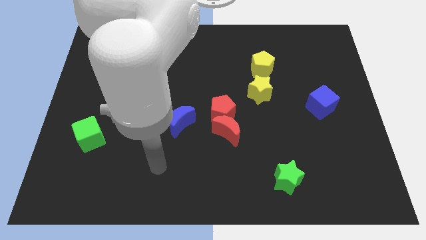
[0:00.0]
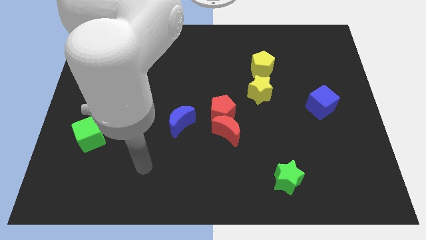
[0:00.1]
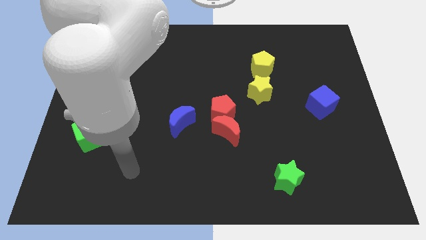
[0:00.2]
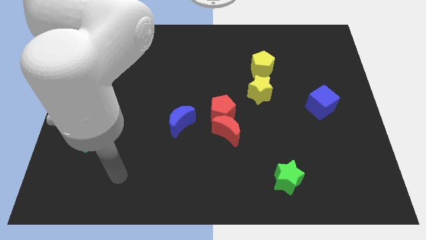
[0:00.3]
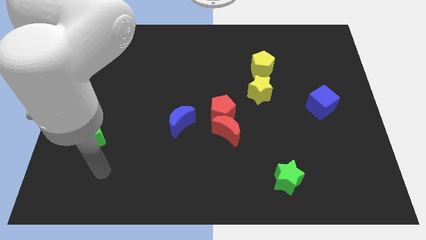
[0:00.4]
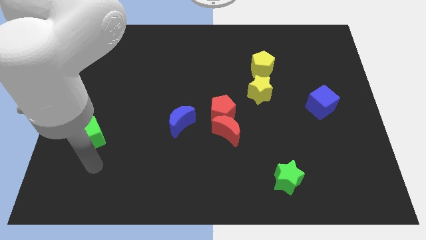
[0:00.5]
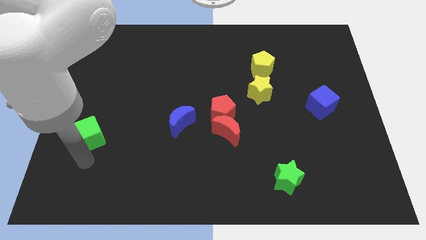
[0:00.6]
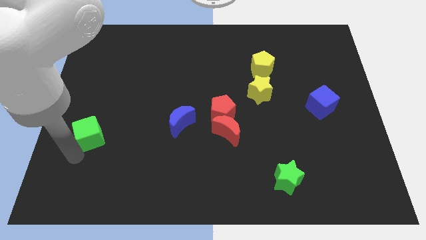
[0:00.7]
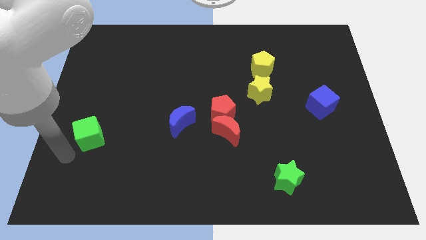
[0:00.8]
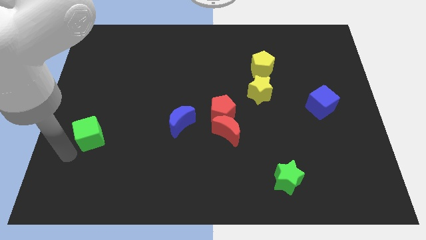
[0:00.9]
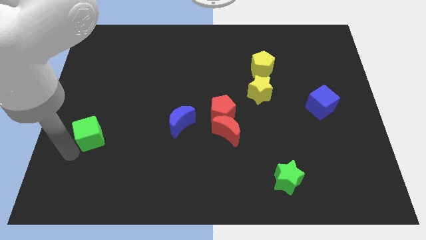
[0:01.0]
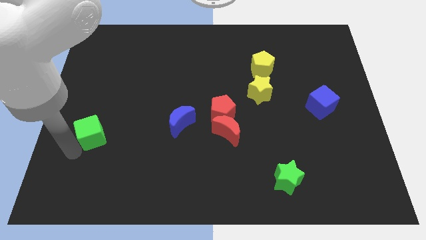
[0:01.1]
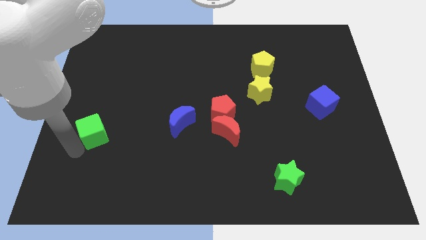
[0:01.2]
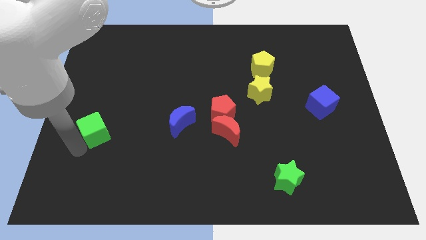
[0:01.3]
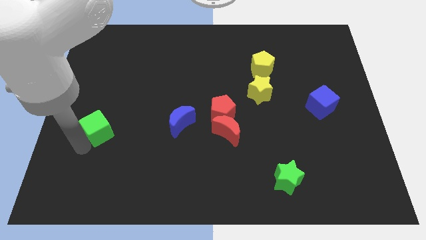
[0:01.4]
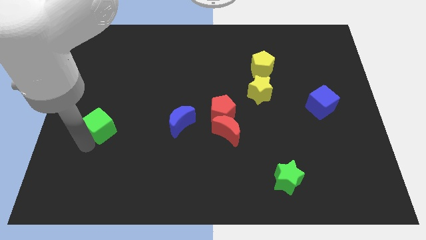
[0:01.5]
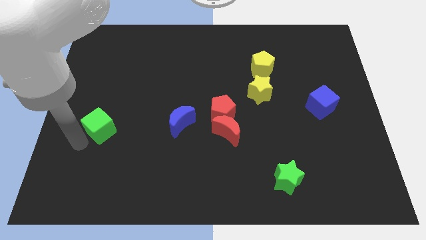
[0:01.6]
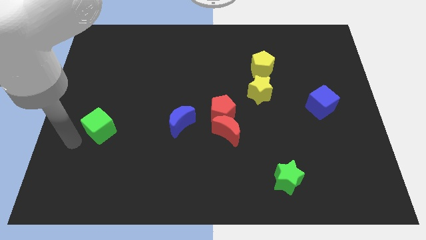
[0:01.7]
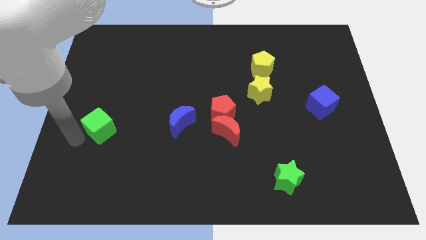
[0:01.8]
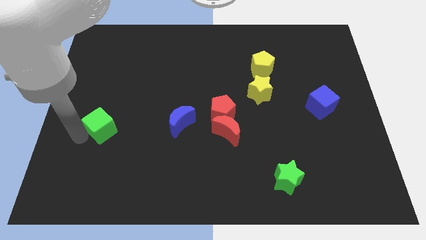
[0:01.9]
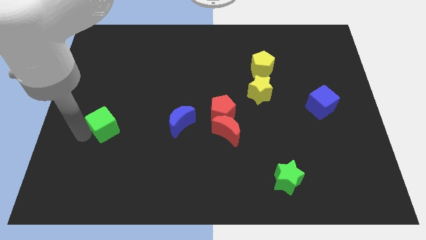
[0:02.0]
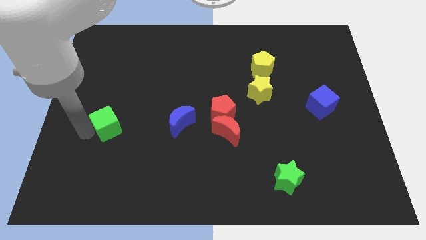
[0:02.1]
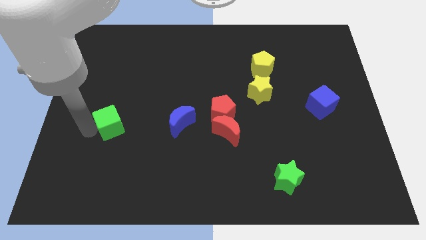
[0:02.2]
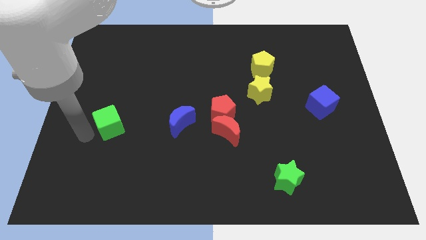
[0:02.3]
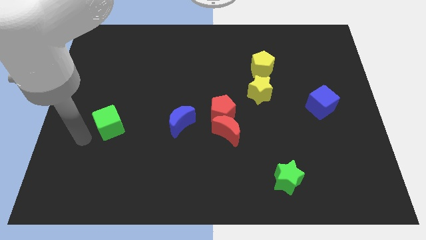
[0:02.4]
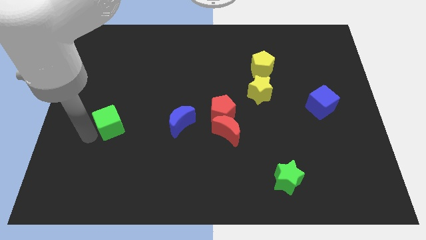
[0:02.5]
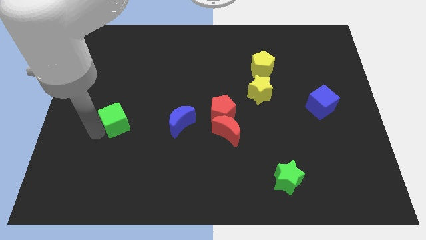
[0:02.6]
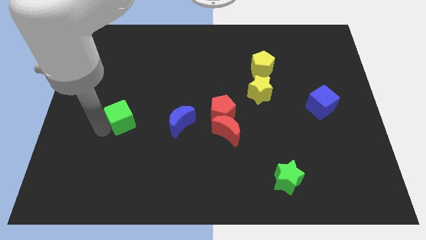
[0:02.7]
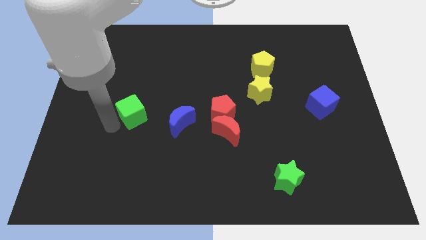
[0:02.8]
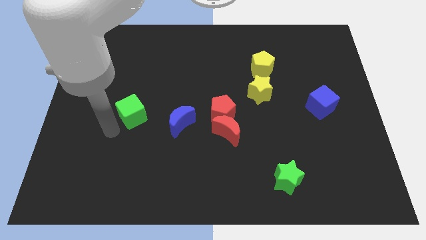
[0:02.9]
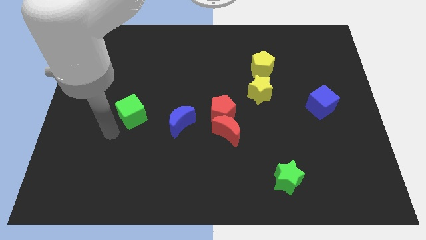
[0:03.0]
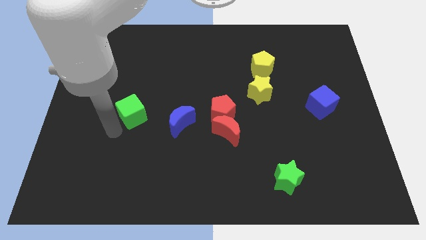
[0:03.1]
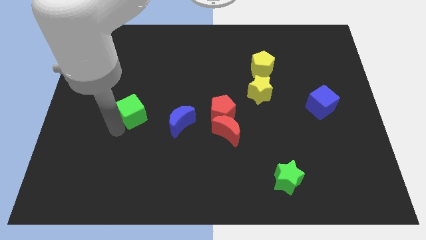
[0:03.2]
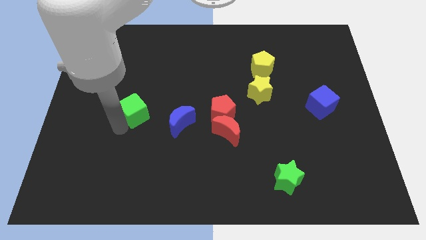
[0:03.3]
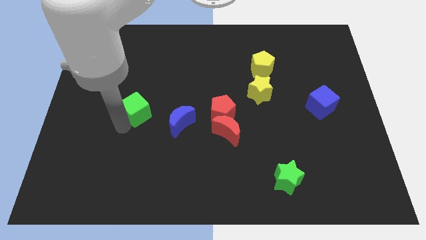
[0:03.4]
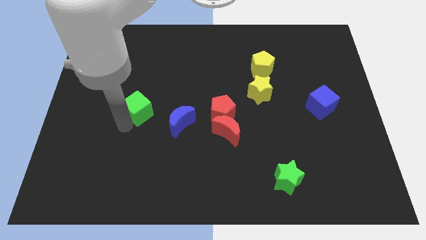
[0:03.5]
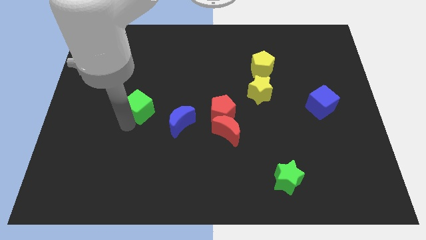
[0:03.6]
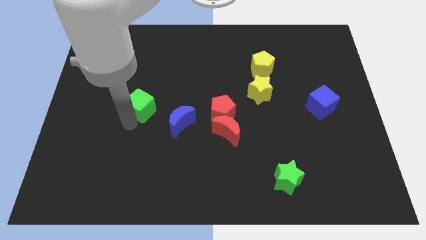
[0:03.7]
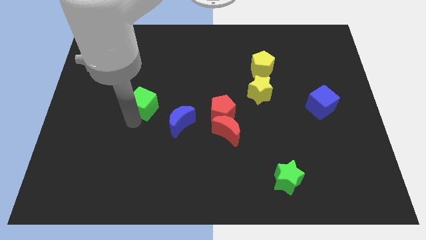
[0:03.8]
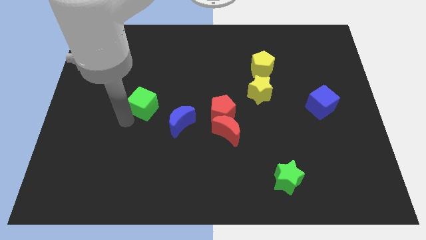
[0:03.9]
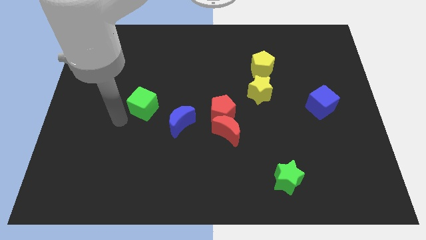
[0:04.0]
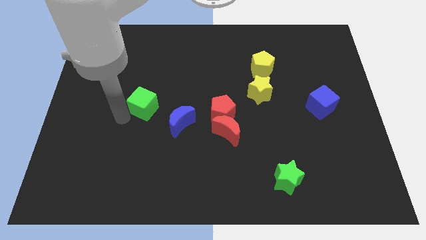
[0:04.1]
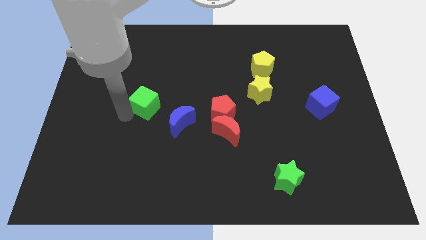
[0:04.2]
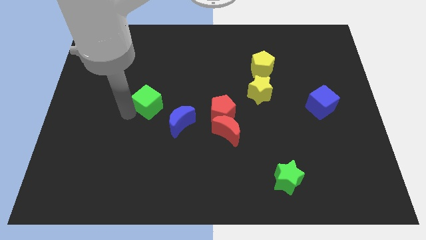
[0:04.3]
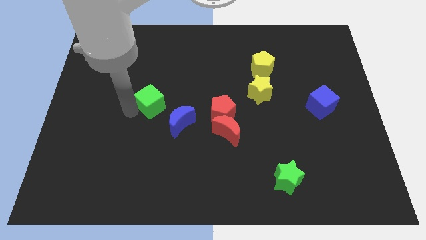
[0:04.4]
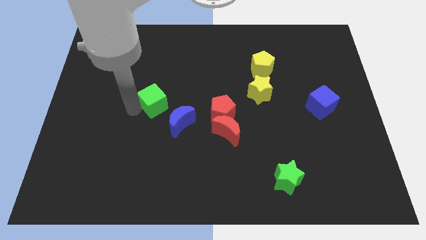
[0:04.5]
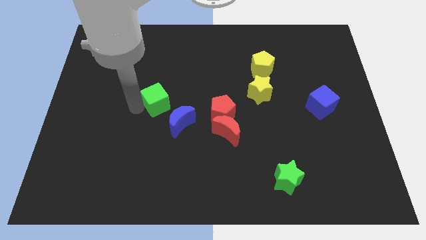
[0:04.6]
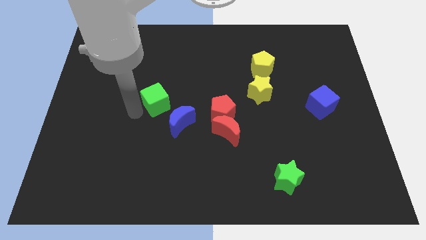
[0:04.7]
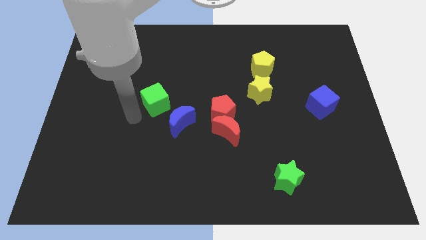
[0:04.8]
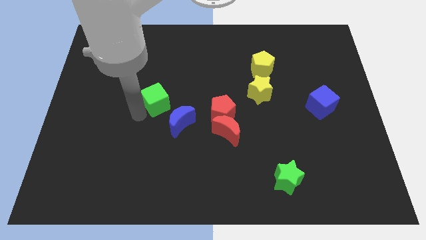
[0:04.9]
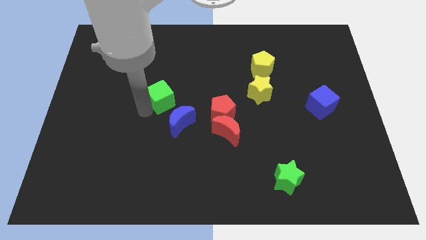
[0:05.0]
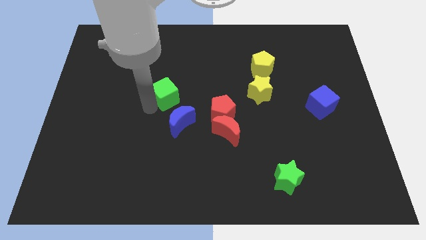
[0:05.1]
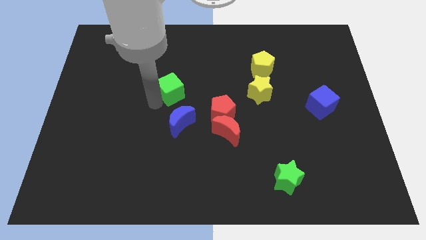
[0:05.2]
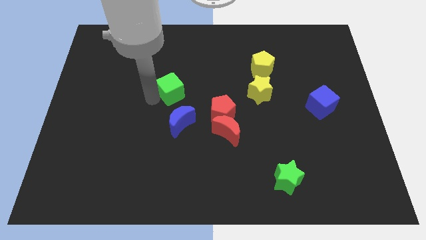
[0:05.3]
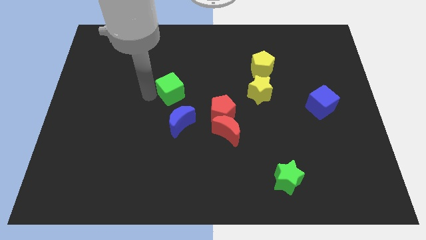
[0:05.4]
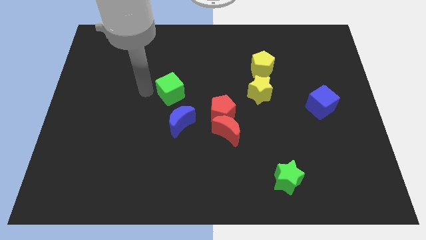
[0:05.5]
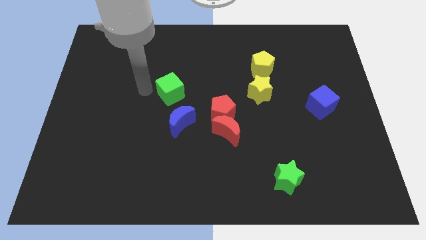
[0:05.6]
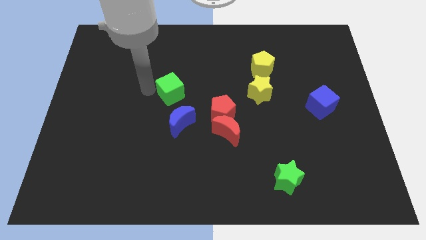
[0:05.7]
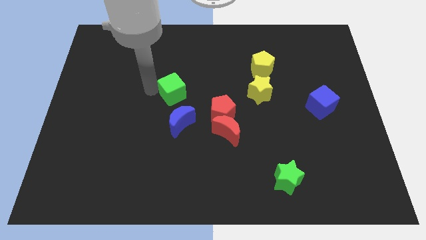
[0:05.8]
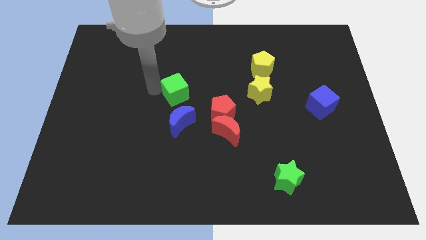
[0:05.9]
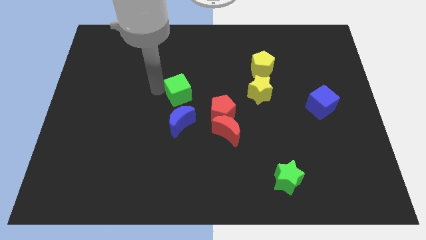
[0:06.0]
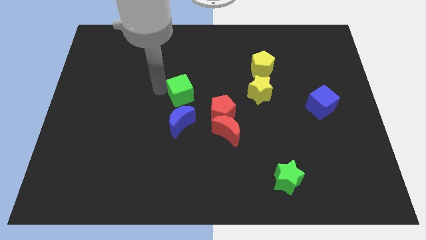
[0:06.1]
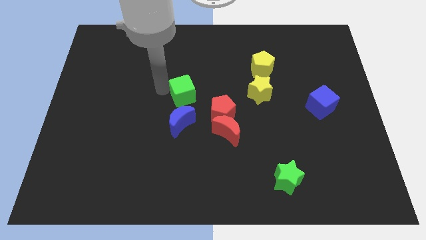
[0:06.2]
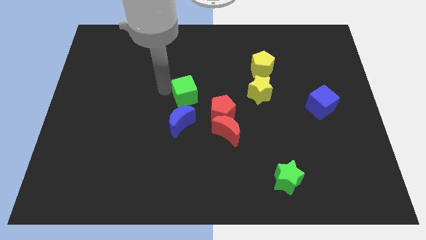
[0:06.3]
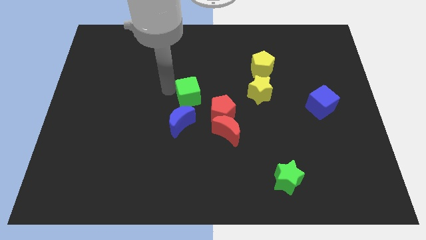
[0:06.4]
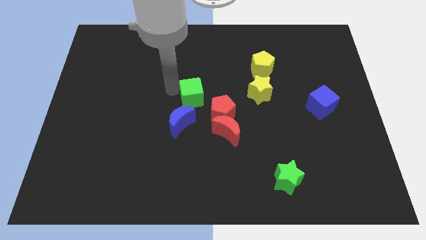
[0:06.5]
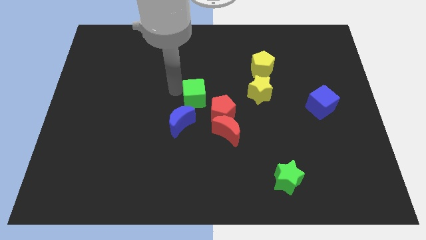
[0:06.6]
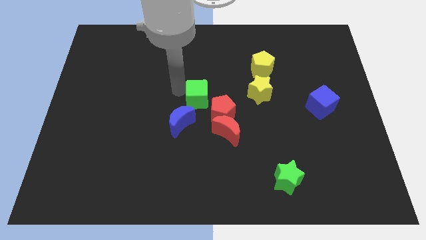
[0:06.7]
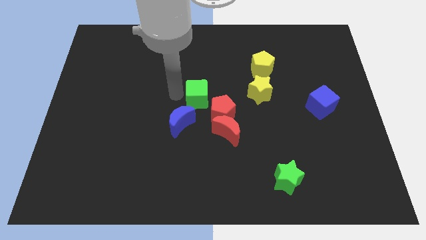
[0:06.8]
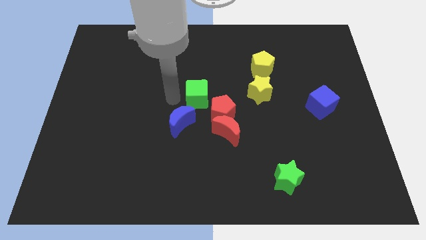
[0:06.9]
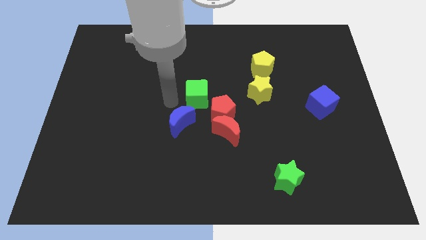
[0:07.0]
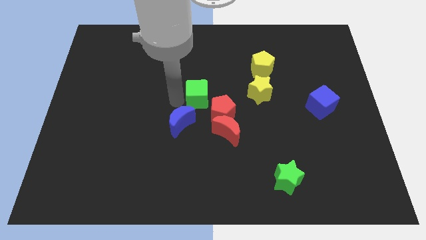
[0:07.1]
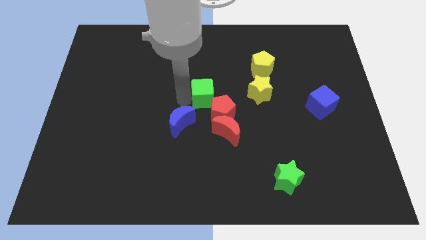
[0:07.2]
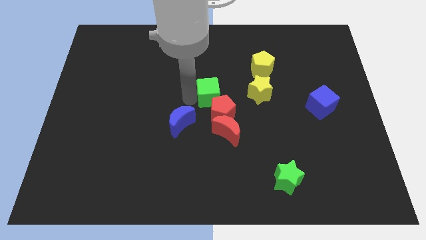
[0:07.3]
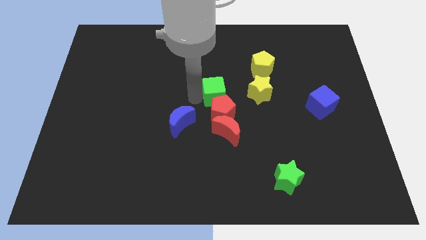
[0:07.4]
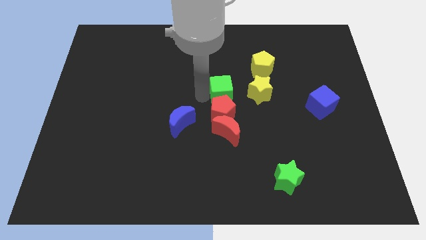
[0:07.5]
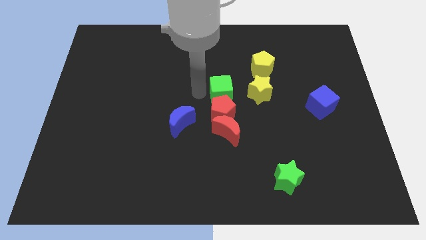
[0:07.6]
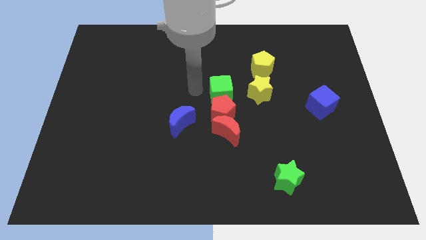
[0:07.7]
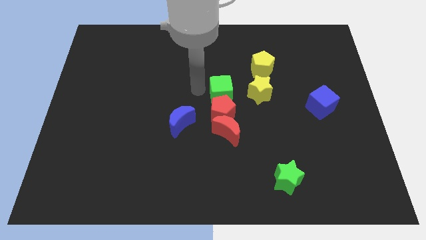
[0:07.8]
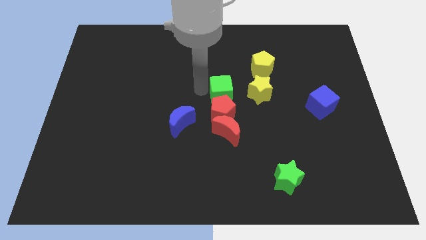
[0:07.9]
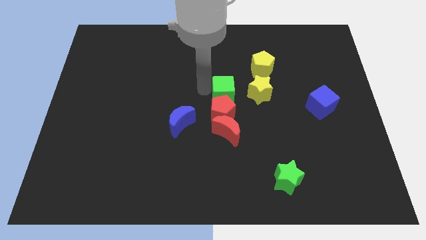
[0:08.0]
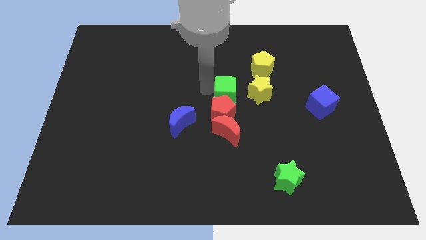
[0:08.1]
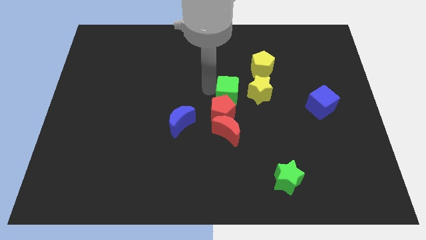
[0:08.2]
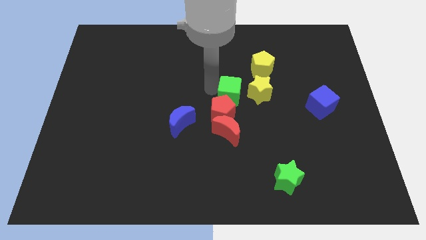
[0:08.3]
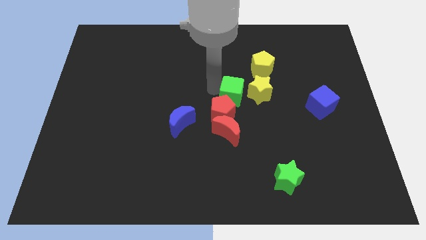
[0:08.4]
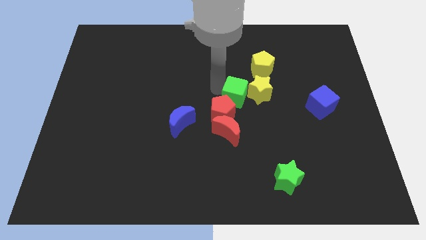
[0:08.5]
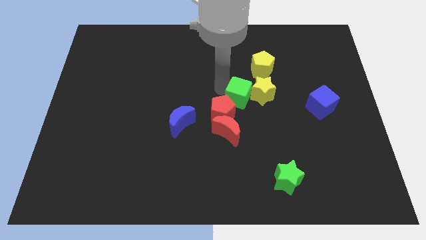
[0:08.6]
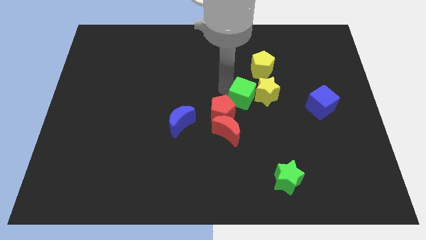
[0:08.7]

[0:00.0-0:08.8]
move the green cube to the right side of the red pentagon
